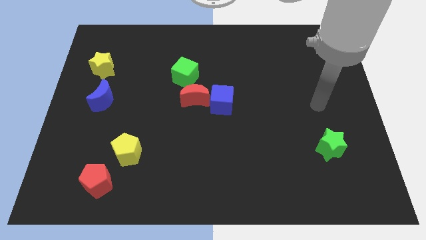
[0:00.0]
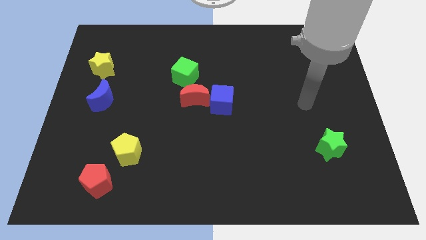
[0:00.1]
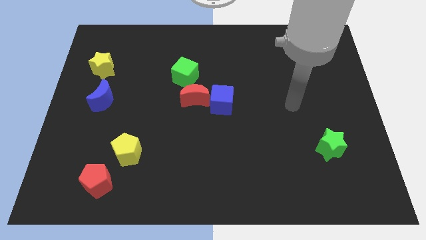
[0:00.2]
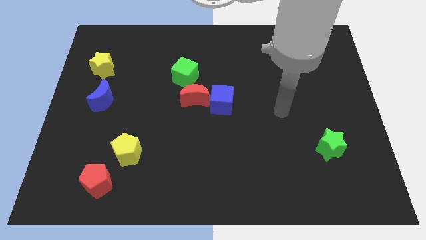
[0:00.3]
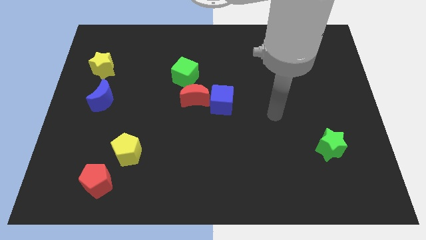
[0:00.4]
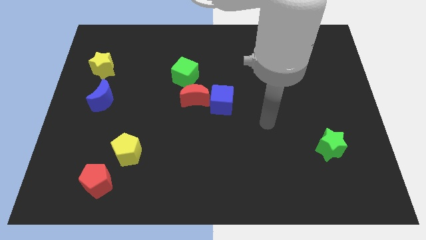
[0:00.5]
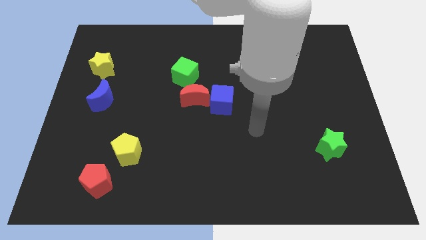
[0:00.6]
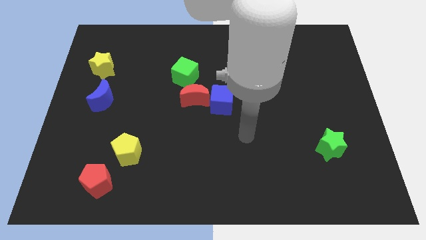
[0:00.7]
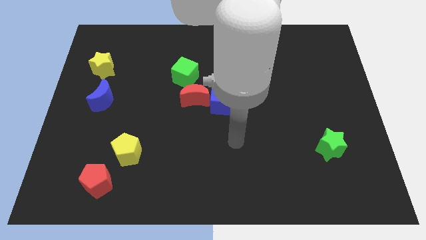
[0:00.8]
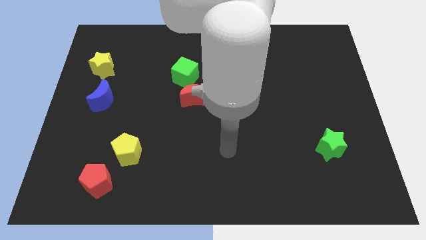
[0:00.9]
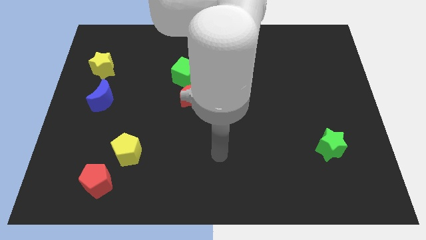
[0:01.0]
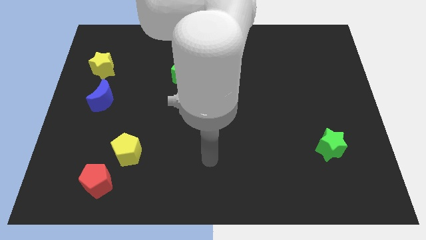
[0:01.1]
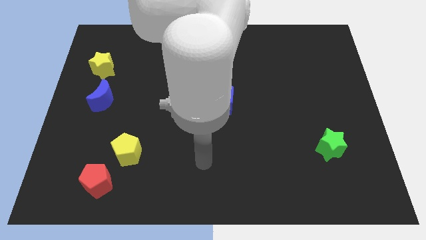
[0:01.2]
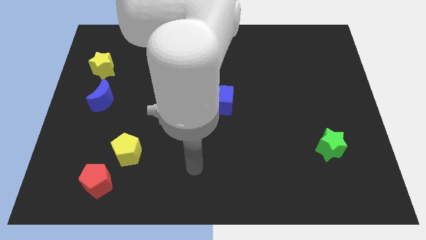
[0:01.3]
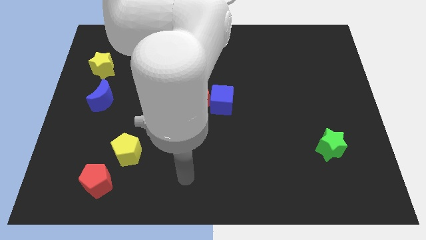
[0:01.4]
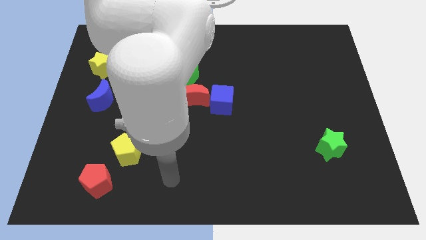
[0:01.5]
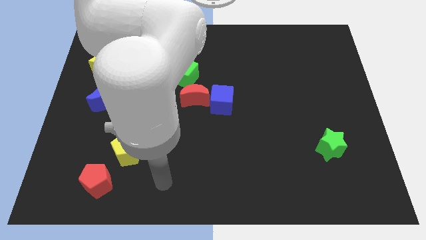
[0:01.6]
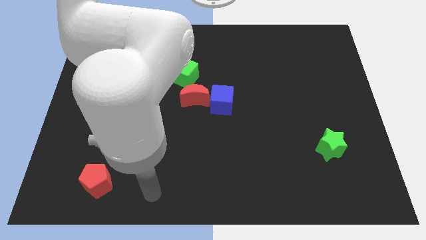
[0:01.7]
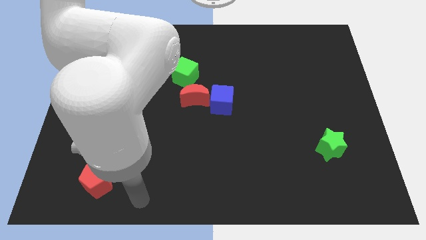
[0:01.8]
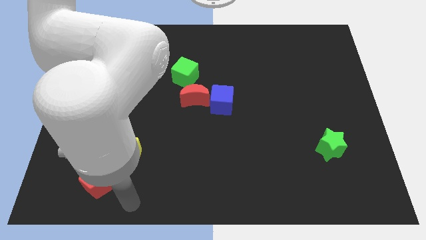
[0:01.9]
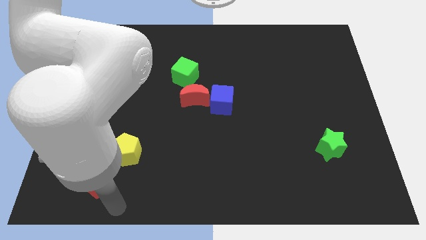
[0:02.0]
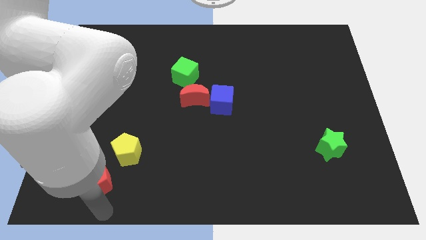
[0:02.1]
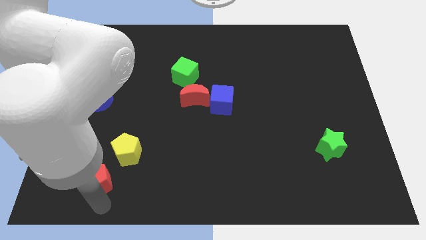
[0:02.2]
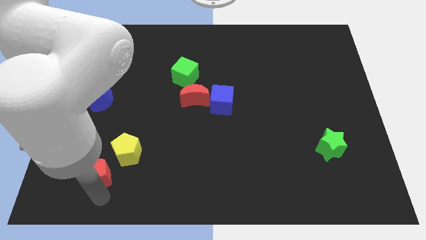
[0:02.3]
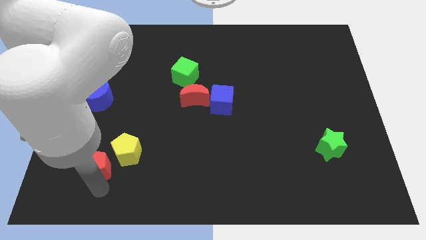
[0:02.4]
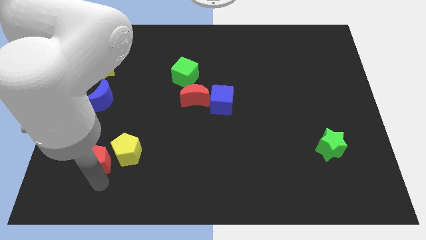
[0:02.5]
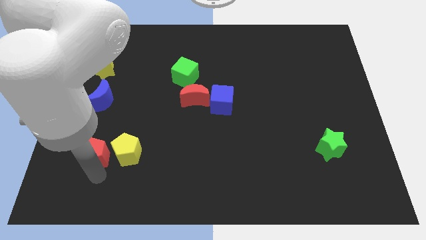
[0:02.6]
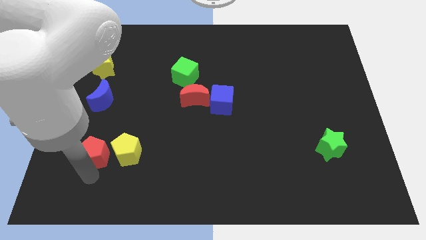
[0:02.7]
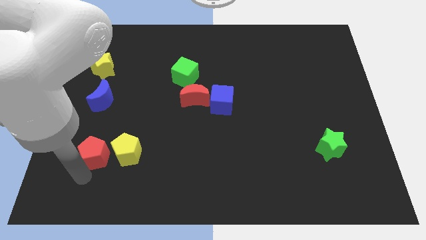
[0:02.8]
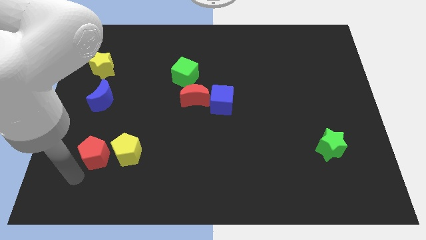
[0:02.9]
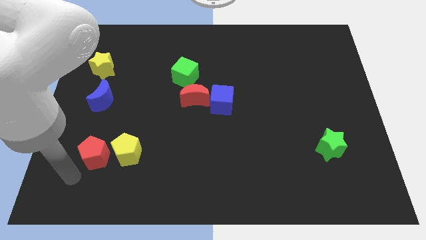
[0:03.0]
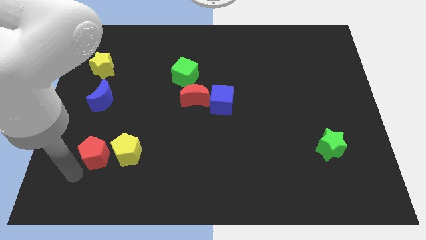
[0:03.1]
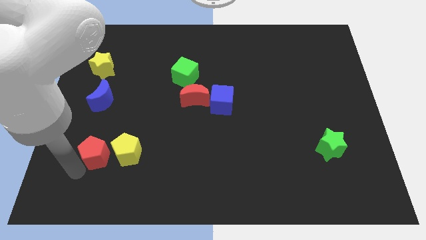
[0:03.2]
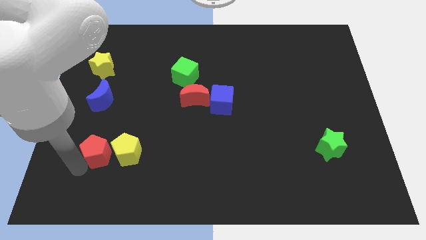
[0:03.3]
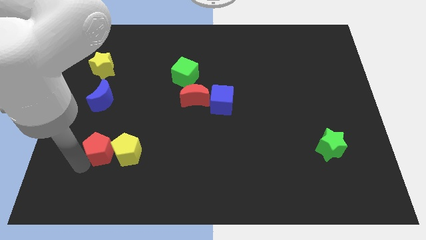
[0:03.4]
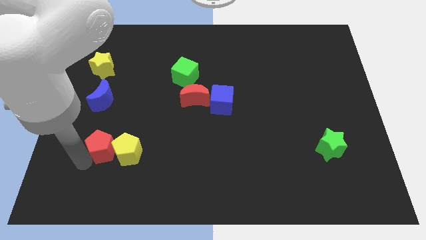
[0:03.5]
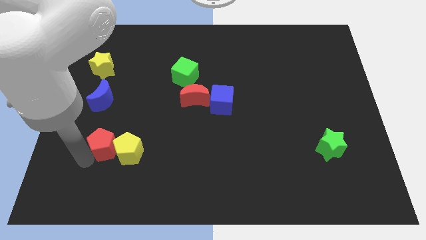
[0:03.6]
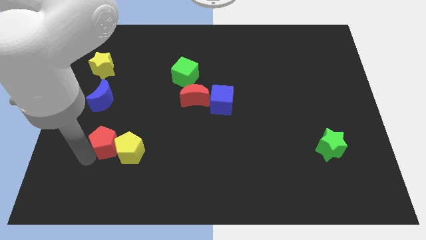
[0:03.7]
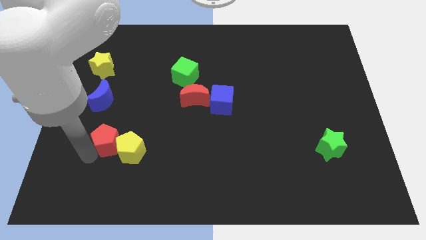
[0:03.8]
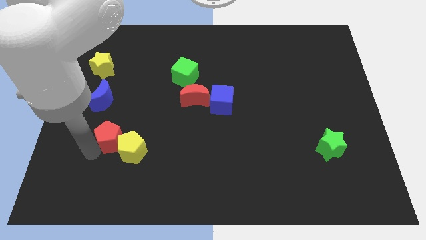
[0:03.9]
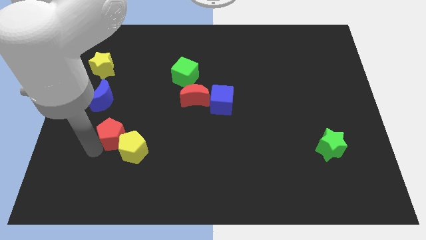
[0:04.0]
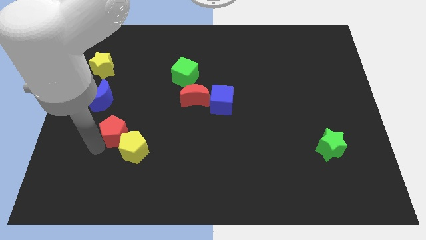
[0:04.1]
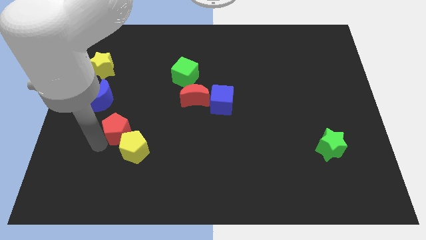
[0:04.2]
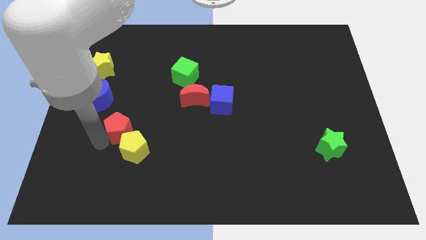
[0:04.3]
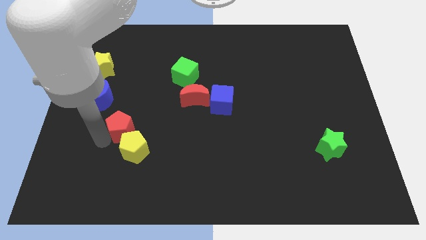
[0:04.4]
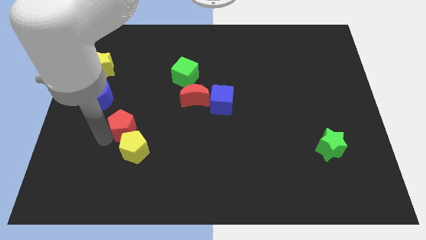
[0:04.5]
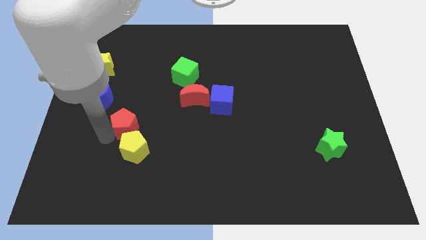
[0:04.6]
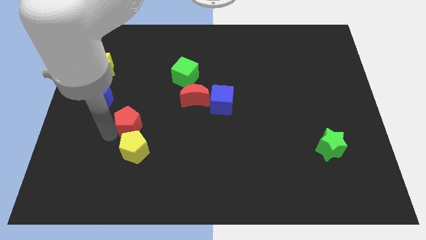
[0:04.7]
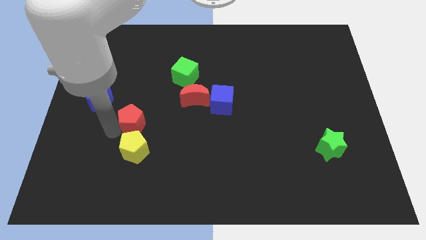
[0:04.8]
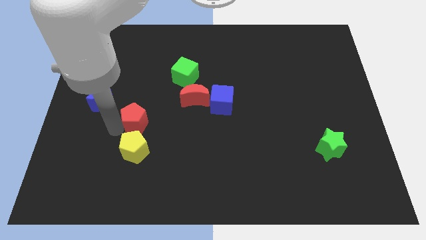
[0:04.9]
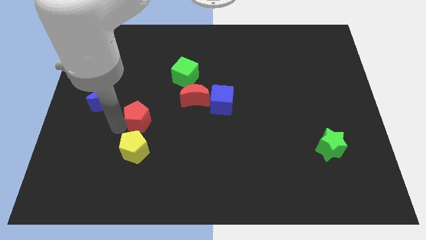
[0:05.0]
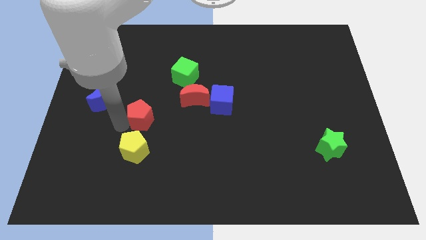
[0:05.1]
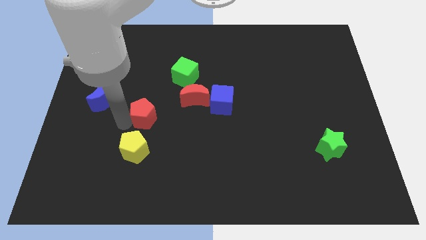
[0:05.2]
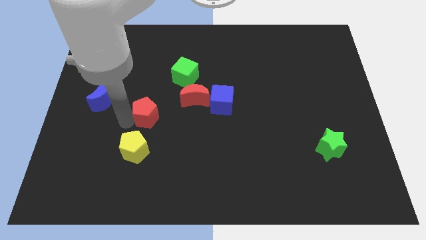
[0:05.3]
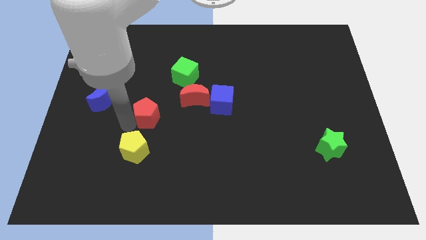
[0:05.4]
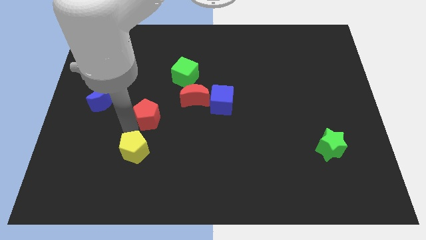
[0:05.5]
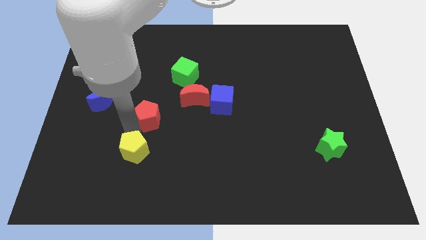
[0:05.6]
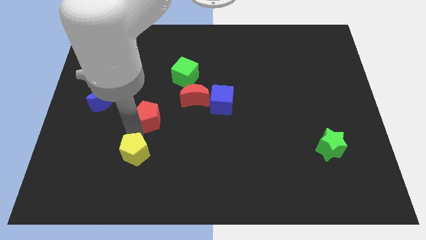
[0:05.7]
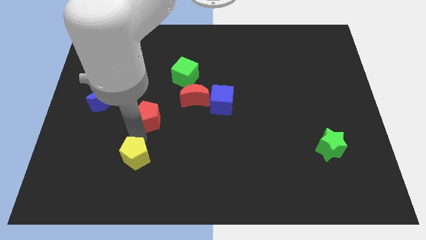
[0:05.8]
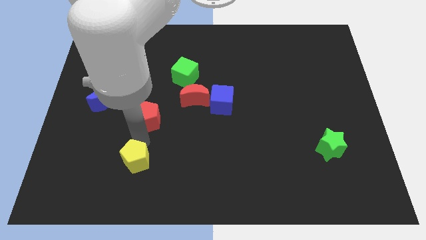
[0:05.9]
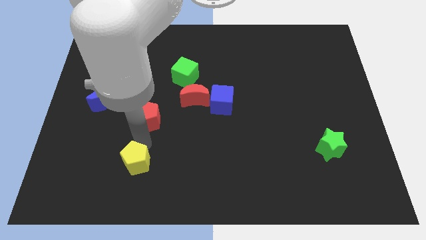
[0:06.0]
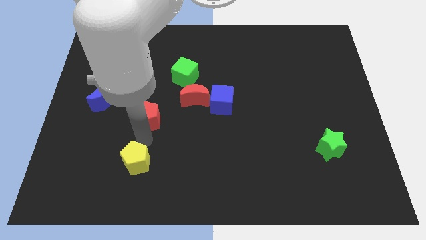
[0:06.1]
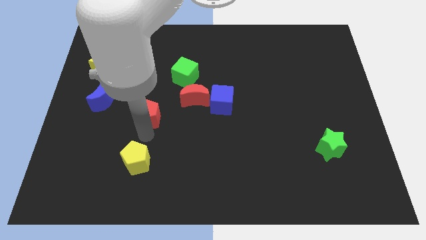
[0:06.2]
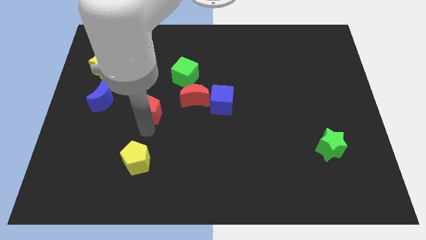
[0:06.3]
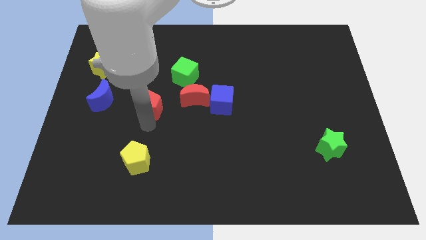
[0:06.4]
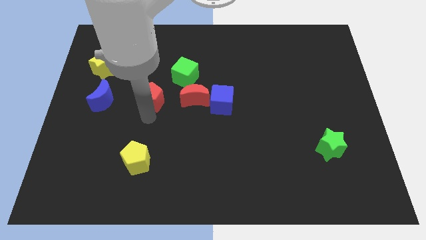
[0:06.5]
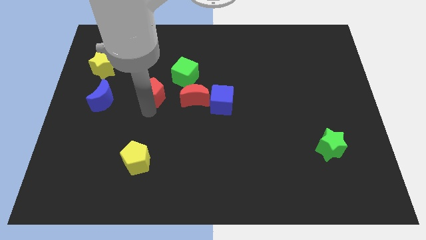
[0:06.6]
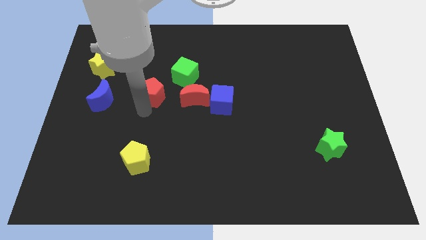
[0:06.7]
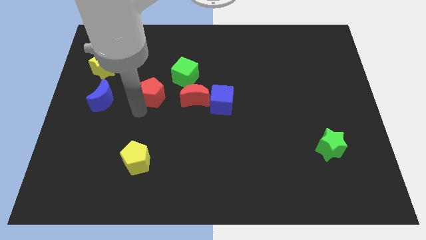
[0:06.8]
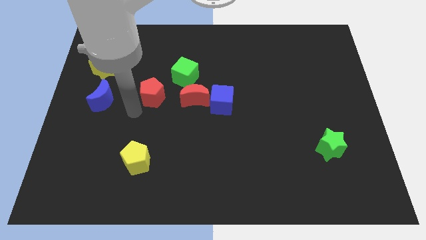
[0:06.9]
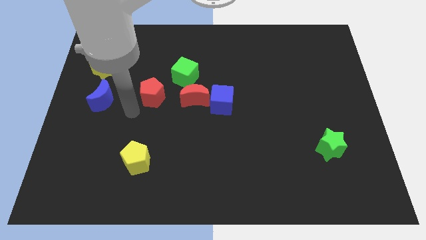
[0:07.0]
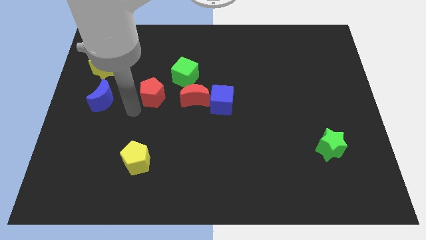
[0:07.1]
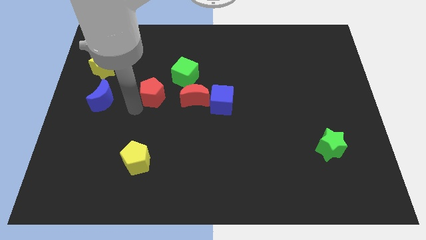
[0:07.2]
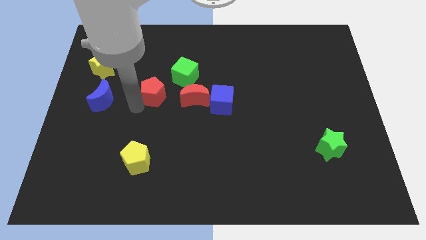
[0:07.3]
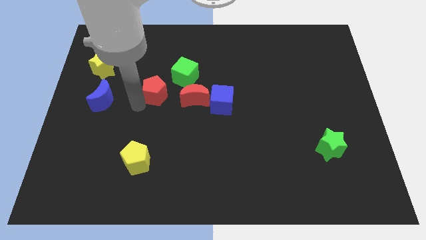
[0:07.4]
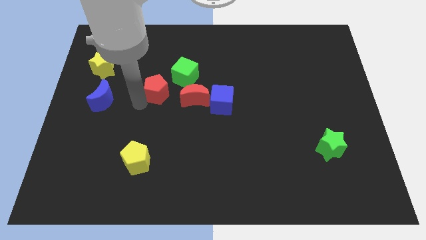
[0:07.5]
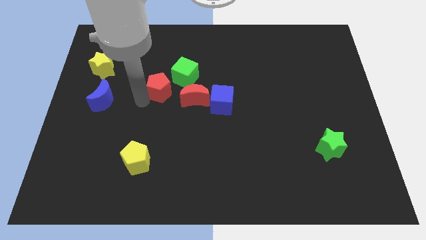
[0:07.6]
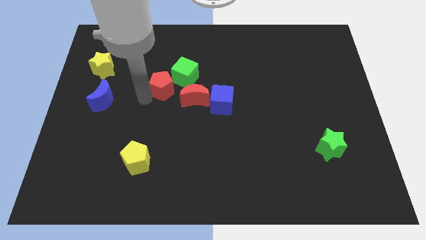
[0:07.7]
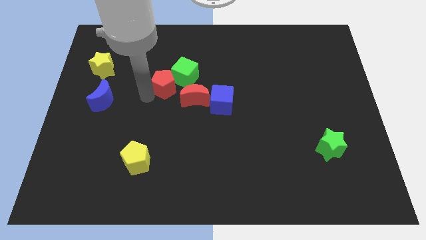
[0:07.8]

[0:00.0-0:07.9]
slide the red pentagon close to the green cube
